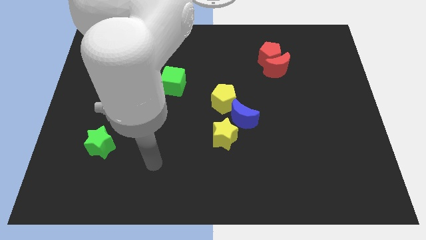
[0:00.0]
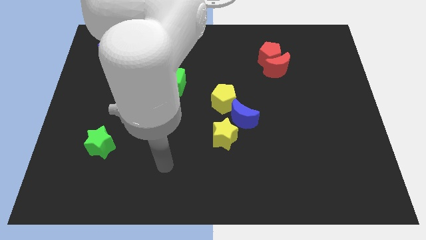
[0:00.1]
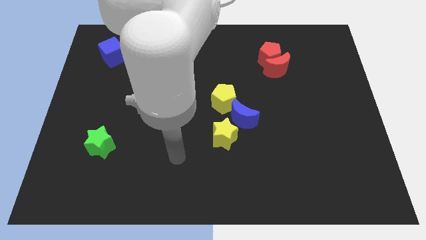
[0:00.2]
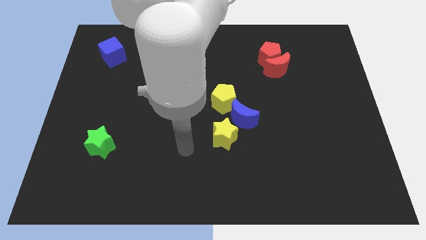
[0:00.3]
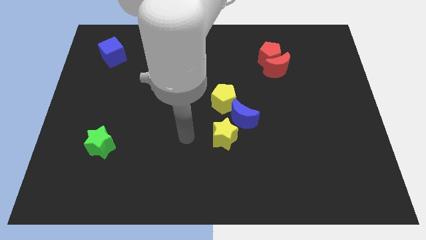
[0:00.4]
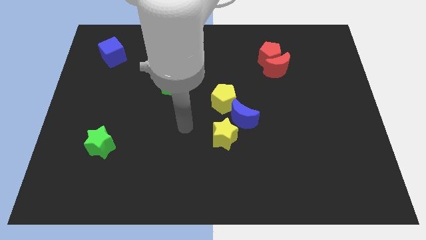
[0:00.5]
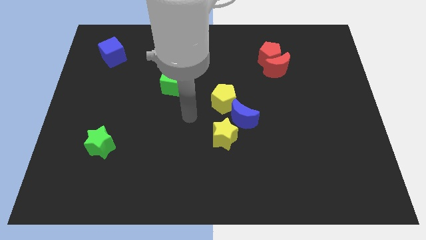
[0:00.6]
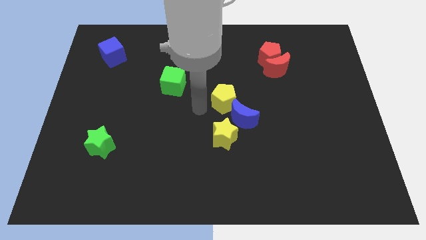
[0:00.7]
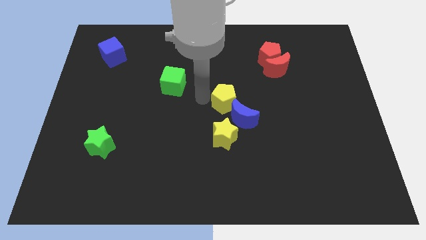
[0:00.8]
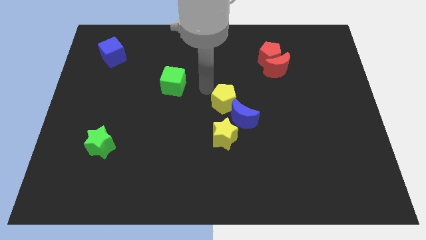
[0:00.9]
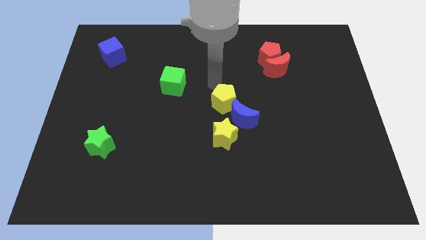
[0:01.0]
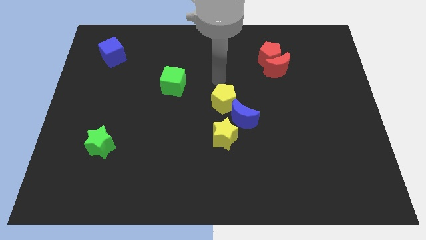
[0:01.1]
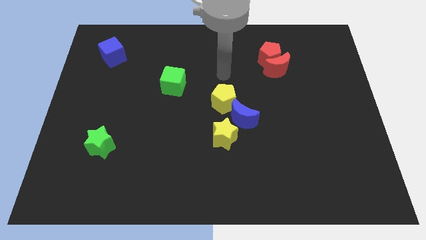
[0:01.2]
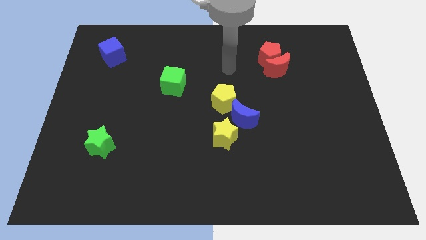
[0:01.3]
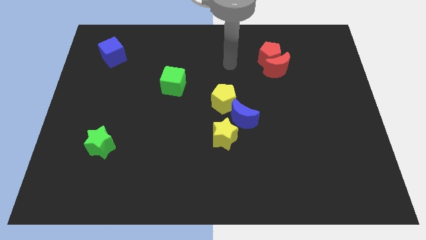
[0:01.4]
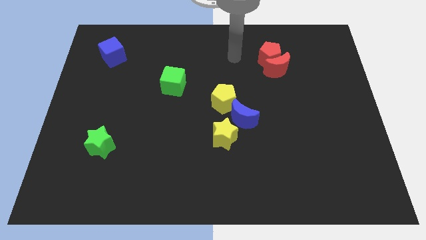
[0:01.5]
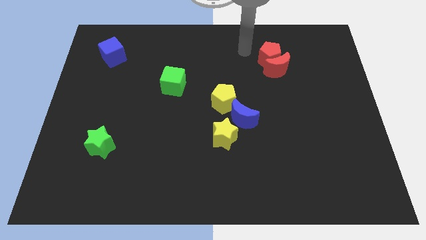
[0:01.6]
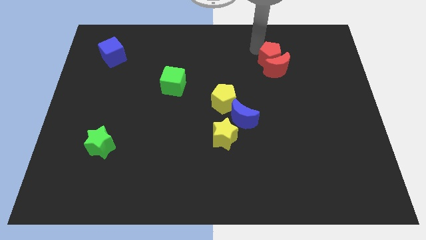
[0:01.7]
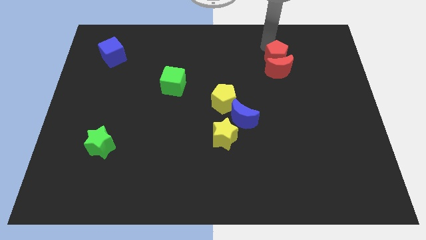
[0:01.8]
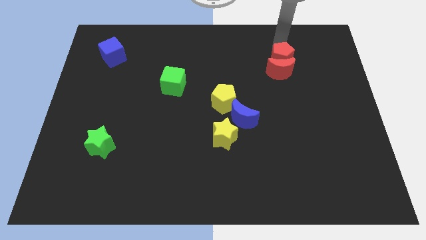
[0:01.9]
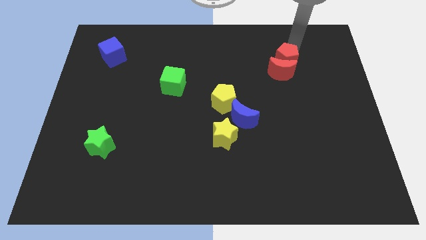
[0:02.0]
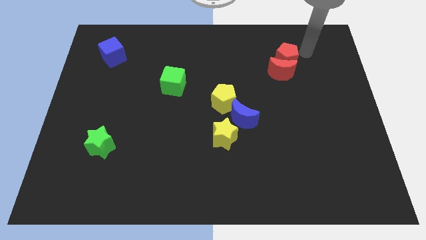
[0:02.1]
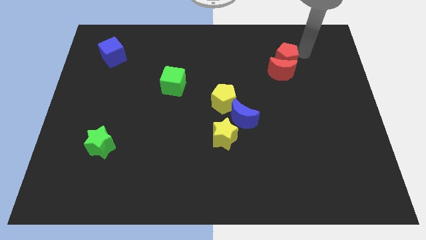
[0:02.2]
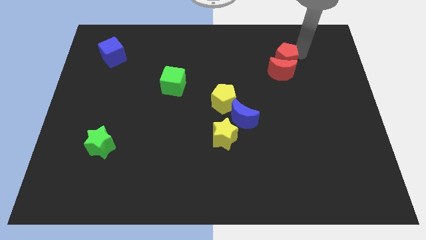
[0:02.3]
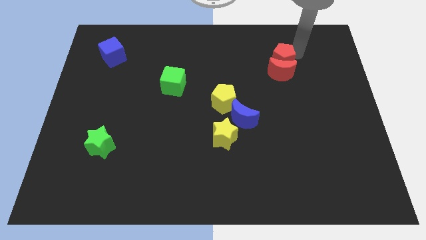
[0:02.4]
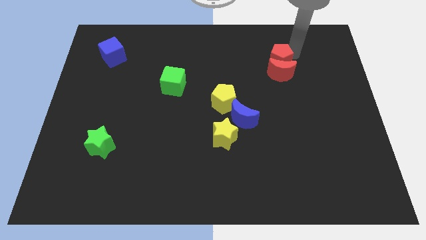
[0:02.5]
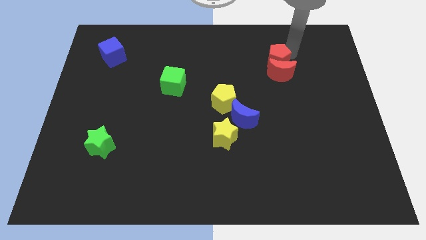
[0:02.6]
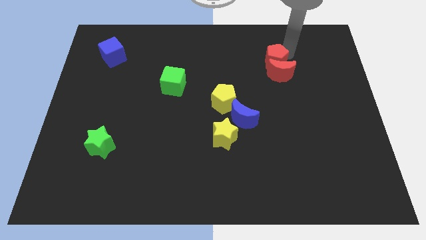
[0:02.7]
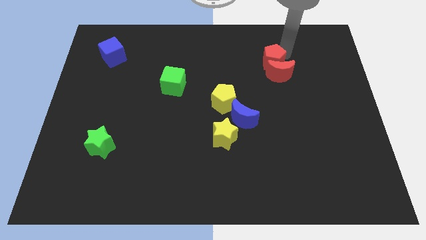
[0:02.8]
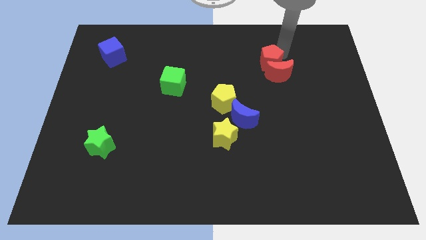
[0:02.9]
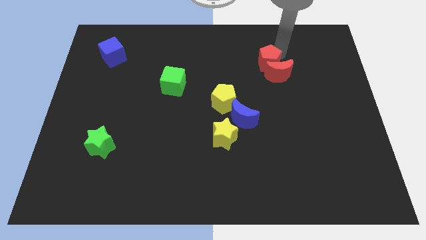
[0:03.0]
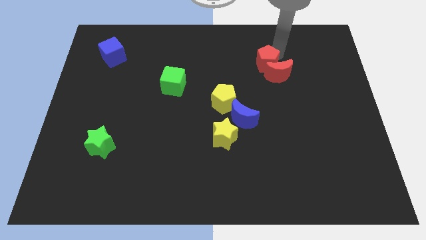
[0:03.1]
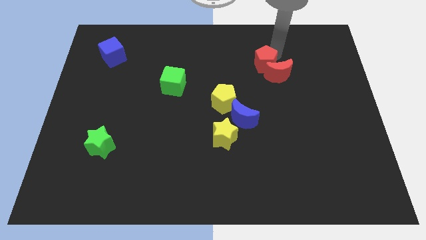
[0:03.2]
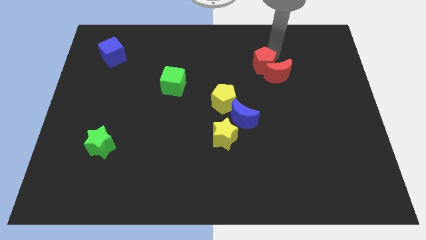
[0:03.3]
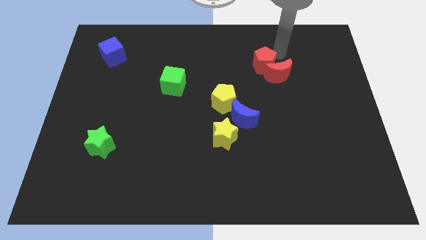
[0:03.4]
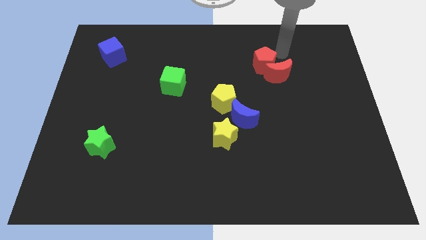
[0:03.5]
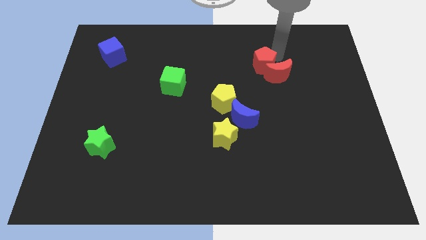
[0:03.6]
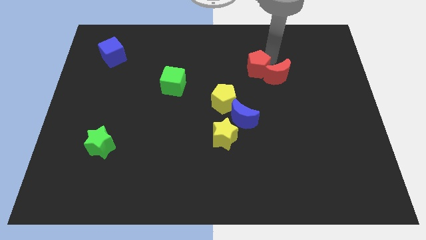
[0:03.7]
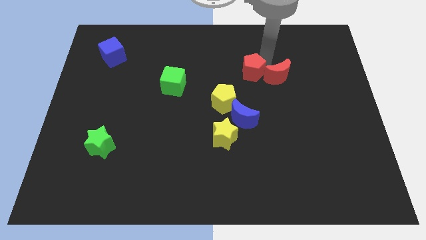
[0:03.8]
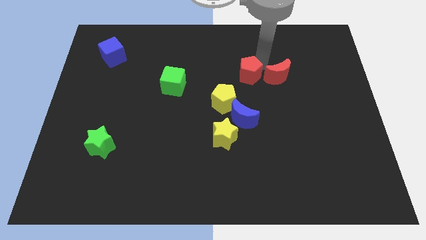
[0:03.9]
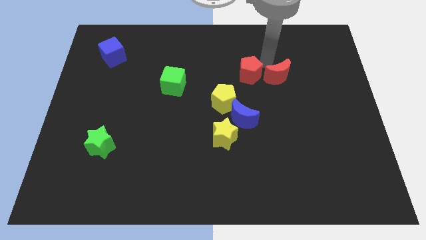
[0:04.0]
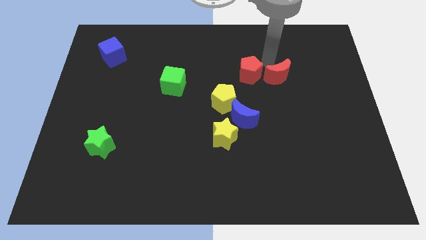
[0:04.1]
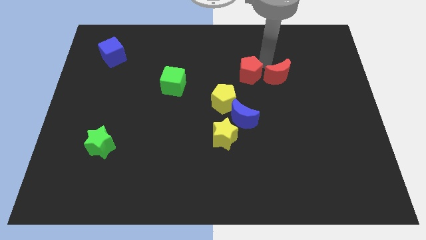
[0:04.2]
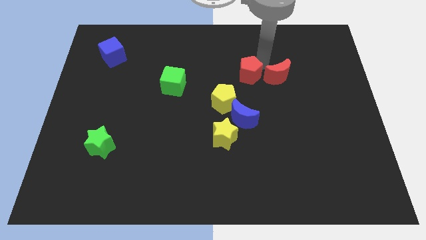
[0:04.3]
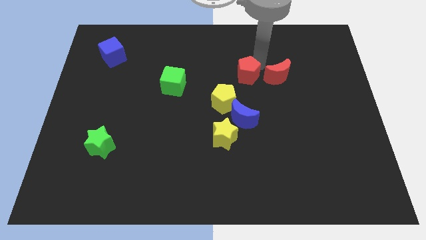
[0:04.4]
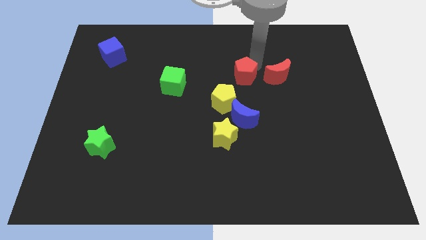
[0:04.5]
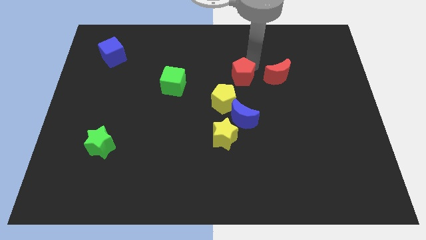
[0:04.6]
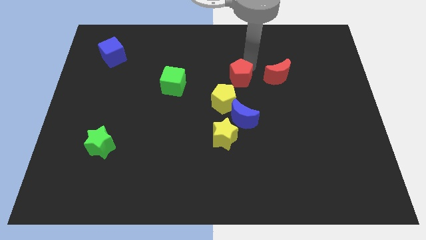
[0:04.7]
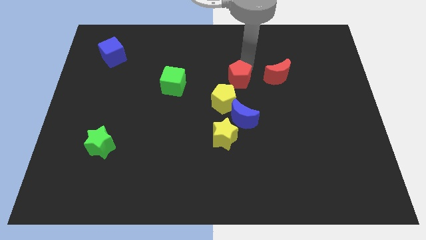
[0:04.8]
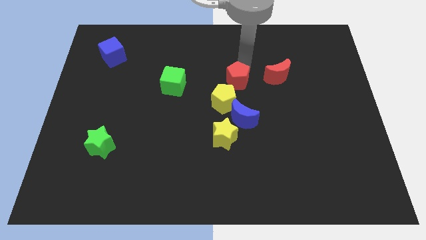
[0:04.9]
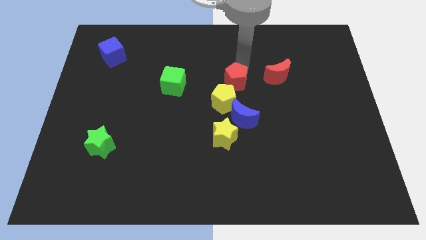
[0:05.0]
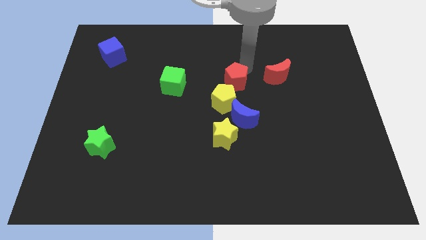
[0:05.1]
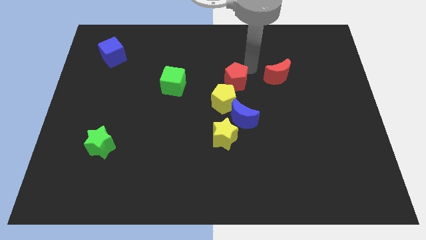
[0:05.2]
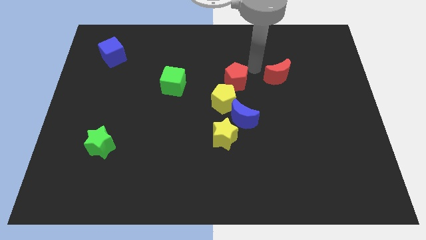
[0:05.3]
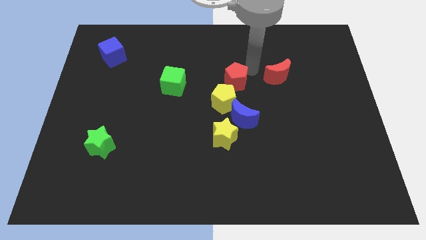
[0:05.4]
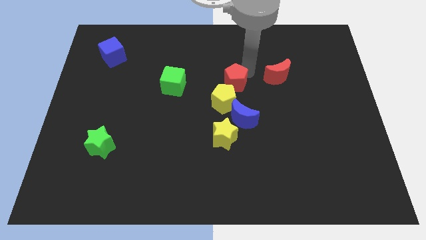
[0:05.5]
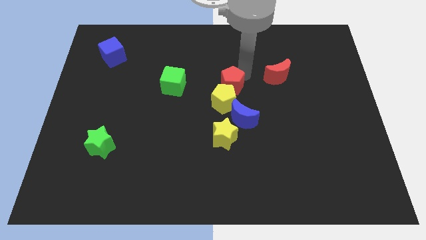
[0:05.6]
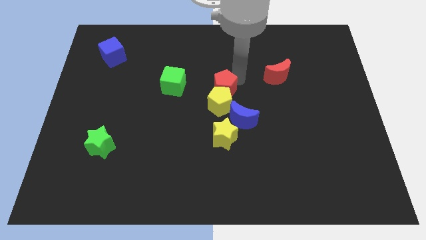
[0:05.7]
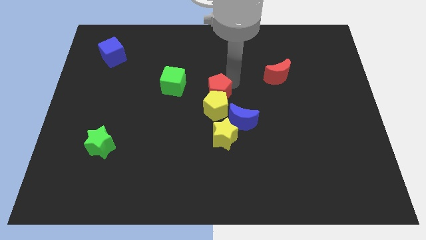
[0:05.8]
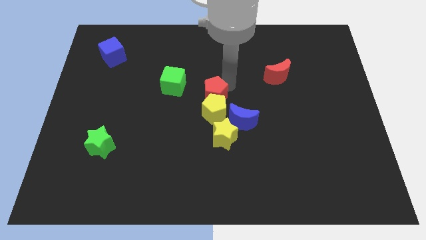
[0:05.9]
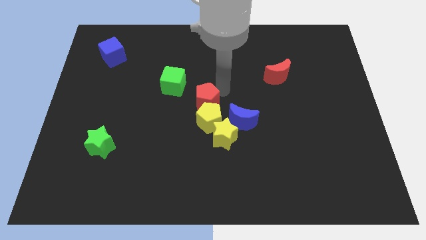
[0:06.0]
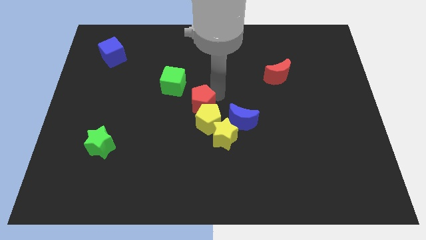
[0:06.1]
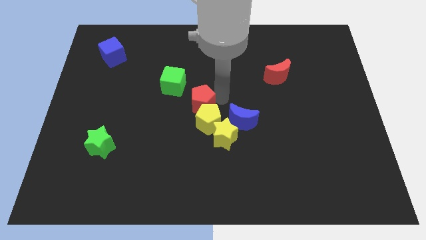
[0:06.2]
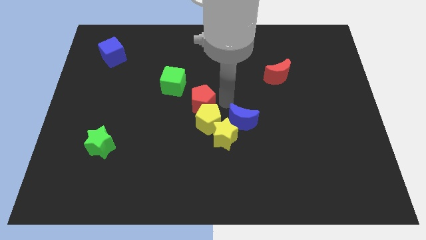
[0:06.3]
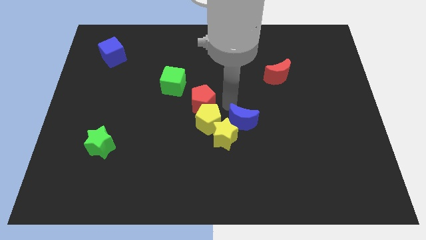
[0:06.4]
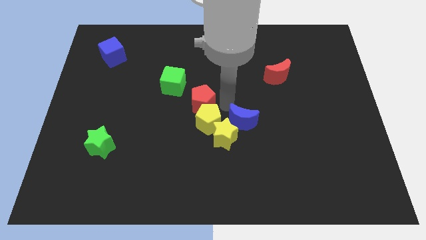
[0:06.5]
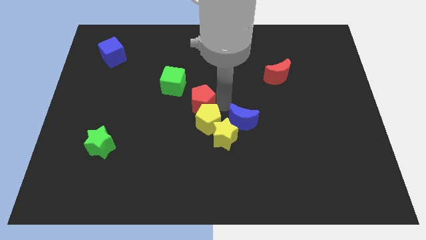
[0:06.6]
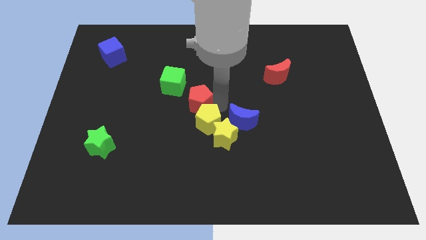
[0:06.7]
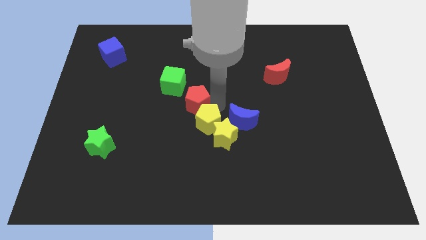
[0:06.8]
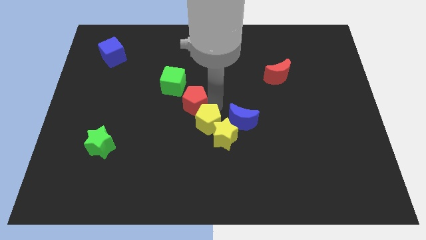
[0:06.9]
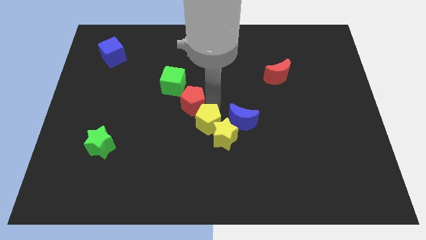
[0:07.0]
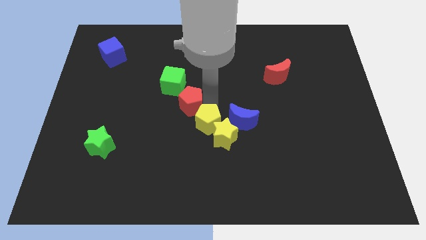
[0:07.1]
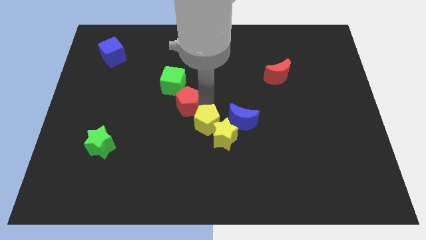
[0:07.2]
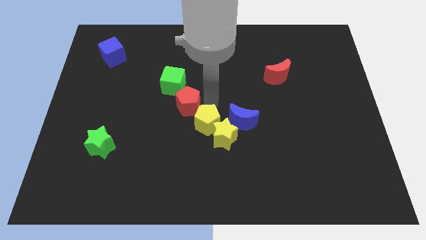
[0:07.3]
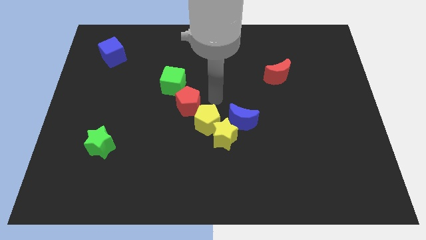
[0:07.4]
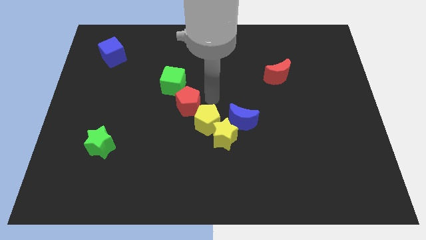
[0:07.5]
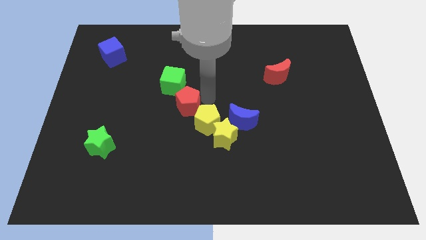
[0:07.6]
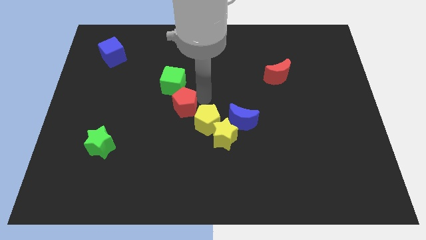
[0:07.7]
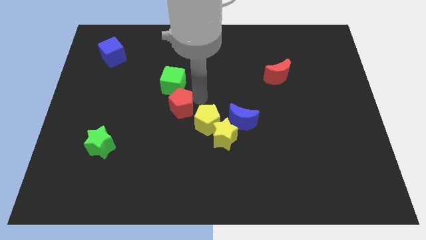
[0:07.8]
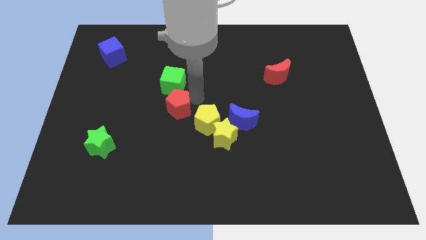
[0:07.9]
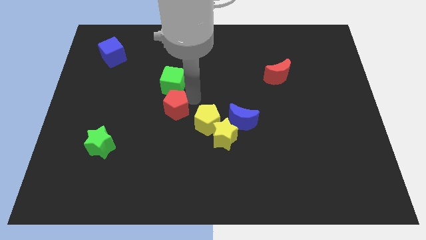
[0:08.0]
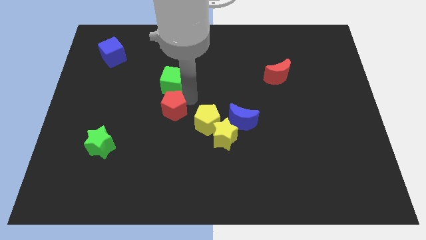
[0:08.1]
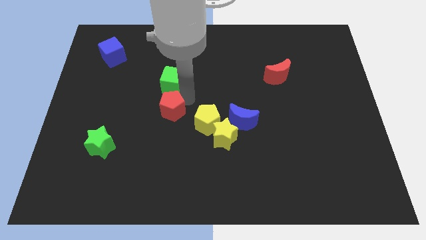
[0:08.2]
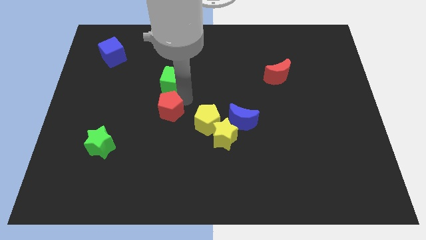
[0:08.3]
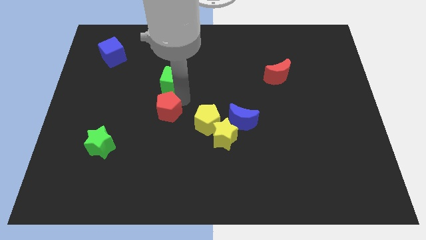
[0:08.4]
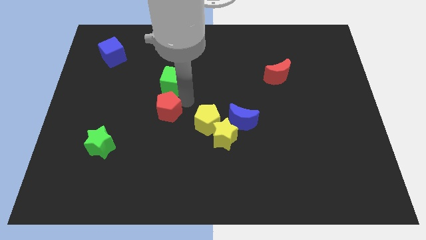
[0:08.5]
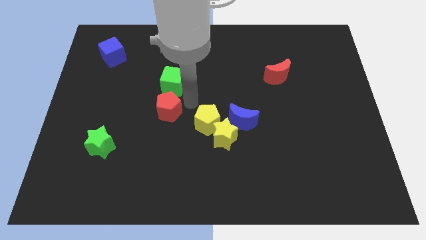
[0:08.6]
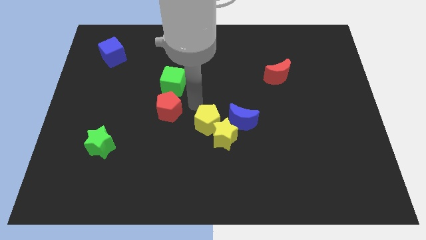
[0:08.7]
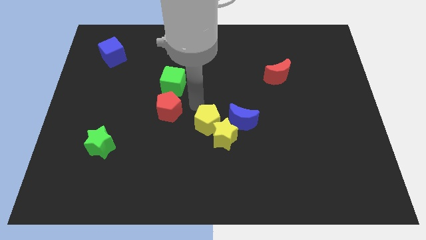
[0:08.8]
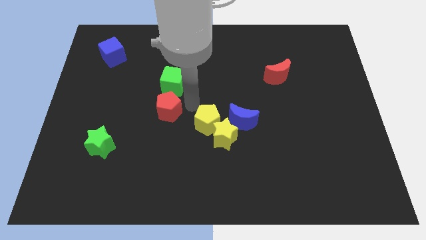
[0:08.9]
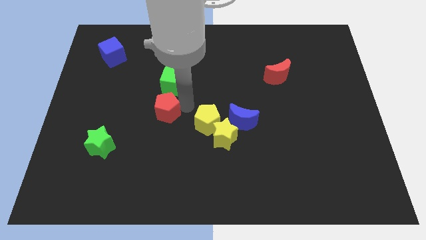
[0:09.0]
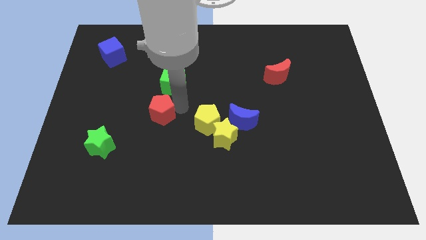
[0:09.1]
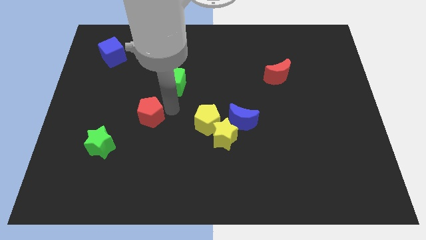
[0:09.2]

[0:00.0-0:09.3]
push the red pentagon to the top right of the green star
